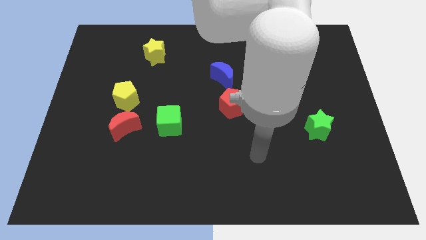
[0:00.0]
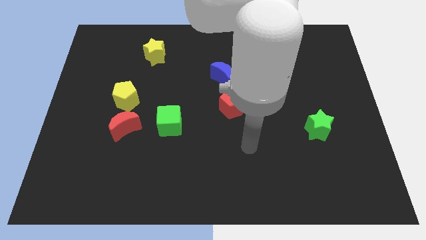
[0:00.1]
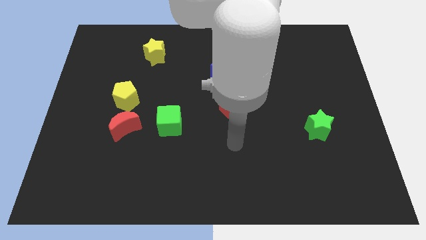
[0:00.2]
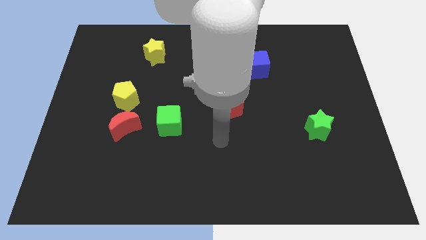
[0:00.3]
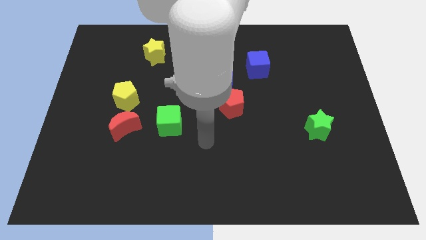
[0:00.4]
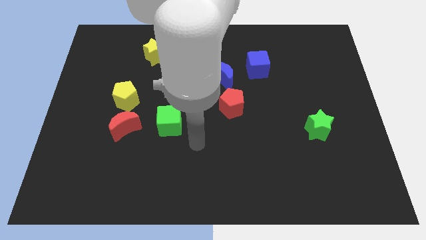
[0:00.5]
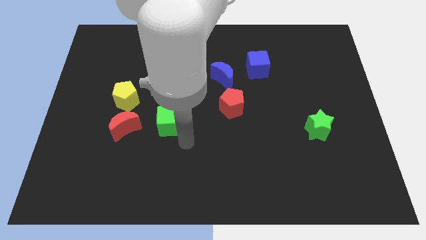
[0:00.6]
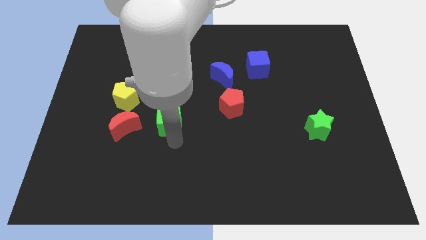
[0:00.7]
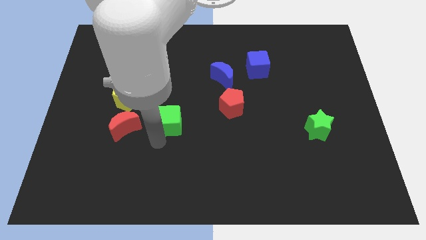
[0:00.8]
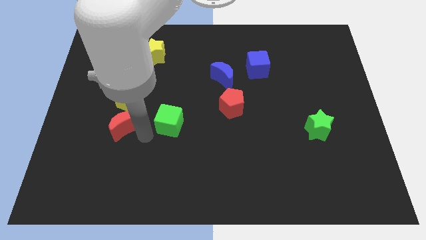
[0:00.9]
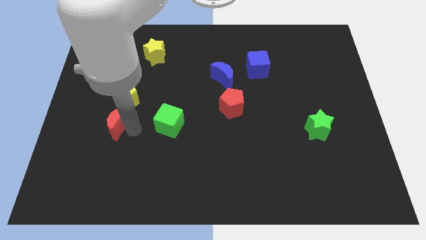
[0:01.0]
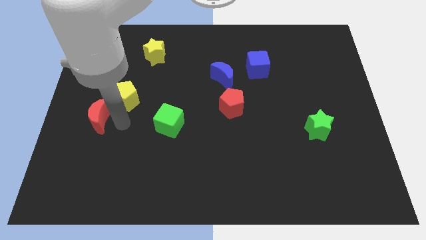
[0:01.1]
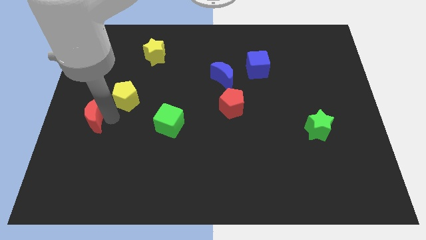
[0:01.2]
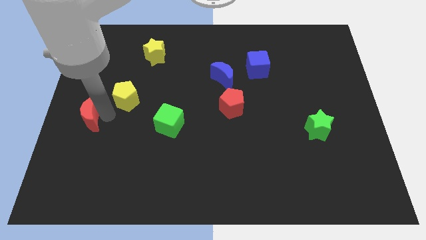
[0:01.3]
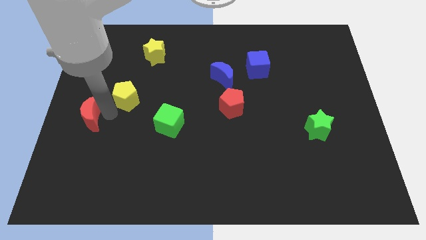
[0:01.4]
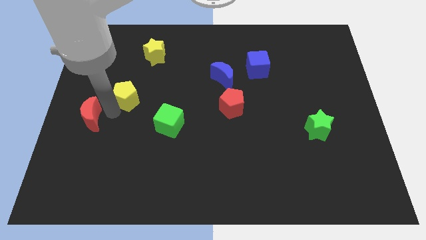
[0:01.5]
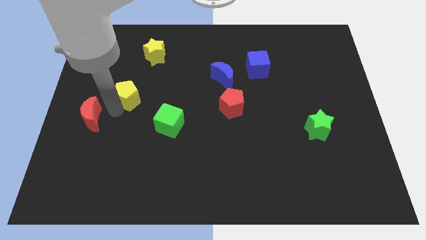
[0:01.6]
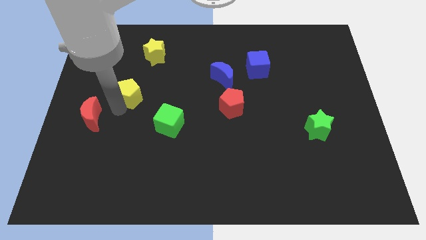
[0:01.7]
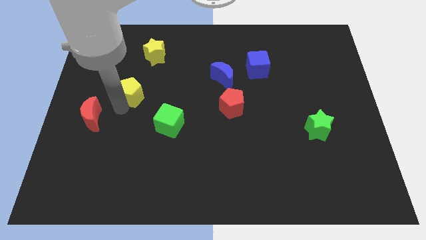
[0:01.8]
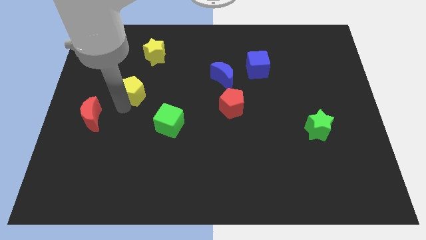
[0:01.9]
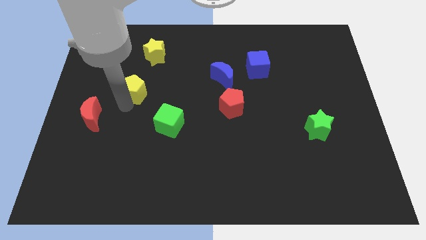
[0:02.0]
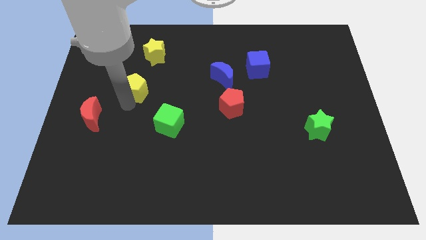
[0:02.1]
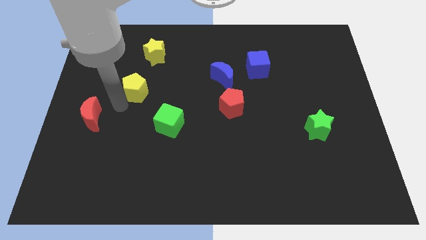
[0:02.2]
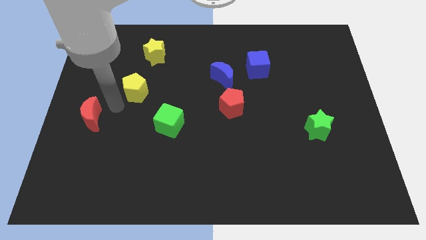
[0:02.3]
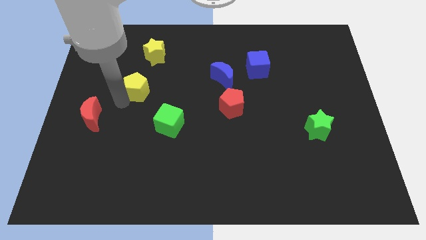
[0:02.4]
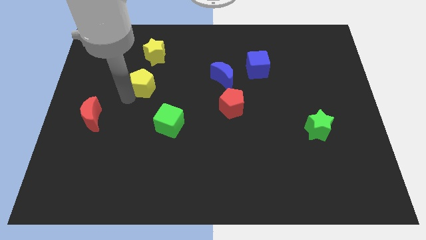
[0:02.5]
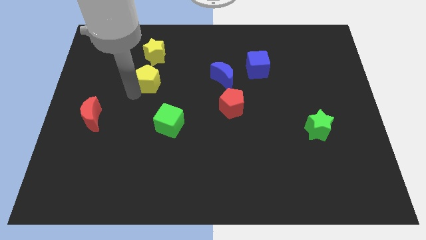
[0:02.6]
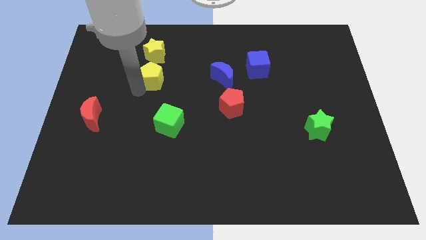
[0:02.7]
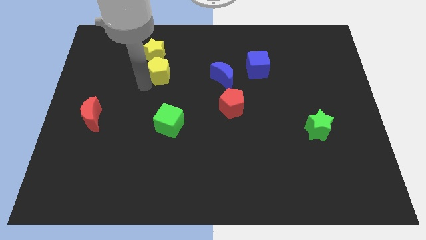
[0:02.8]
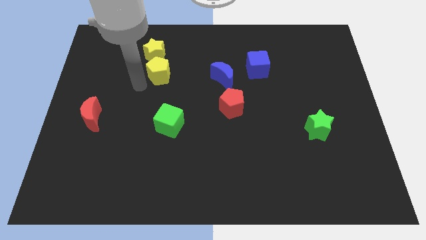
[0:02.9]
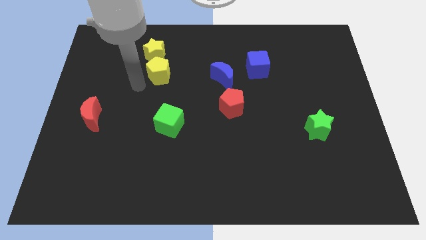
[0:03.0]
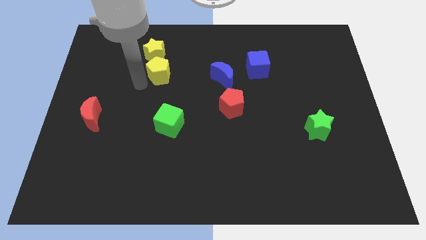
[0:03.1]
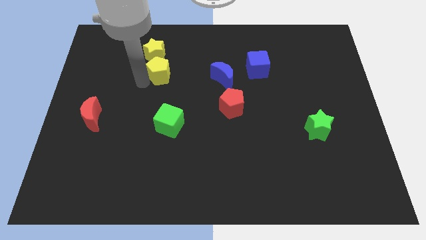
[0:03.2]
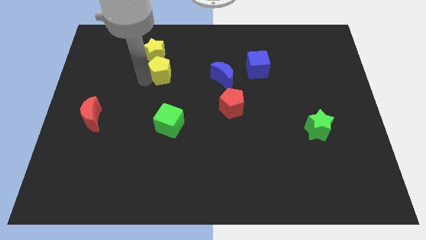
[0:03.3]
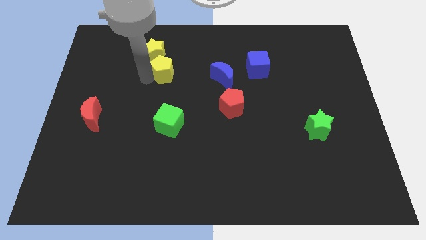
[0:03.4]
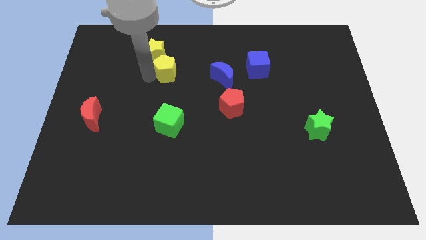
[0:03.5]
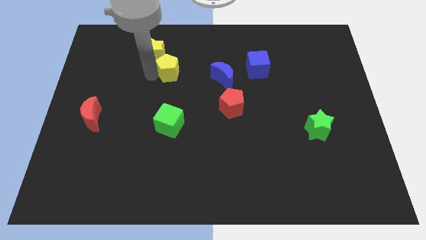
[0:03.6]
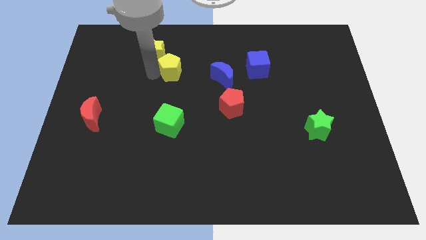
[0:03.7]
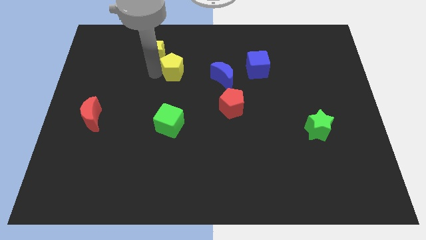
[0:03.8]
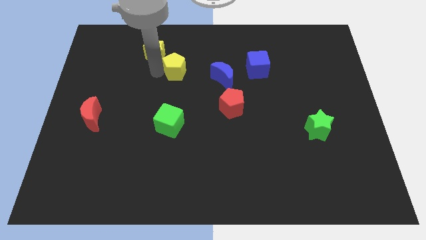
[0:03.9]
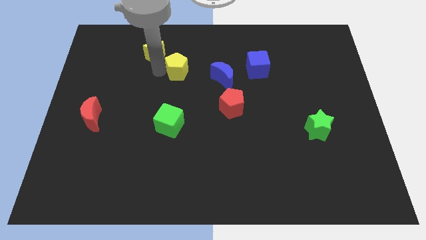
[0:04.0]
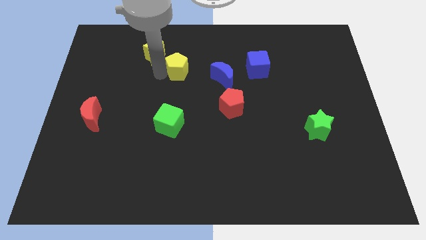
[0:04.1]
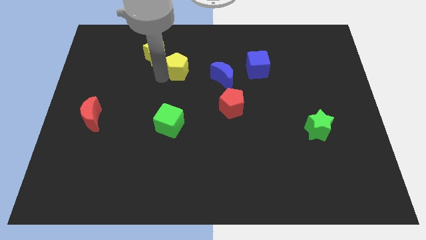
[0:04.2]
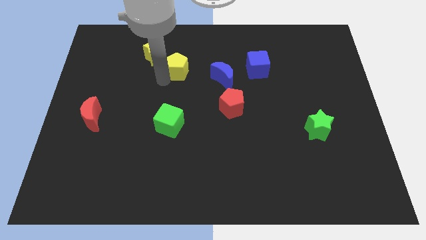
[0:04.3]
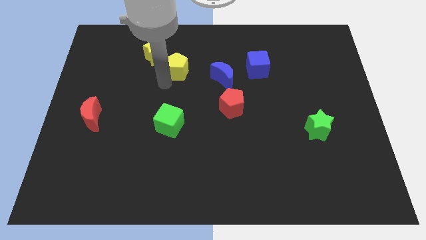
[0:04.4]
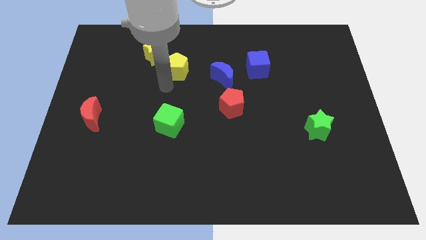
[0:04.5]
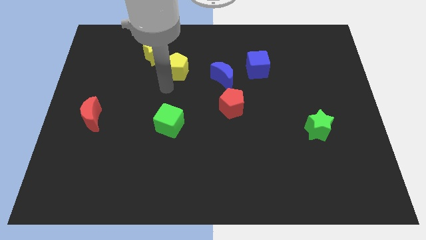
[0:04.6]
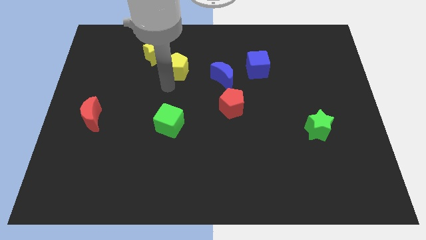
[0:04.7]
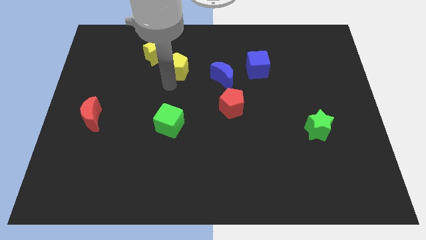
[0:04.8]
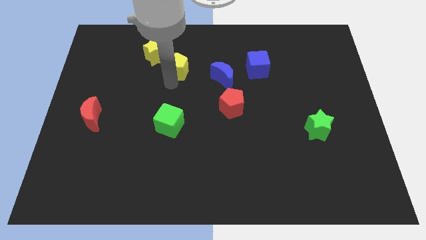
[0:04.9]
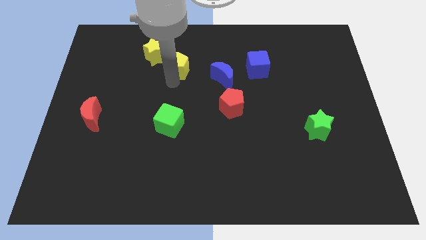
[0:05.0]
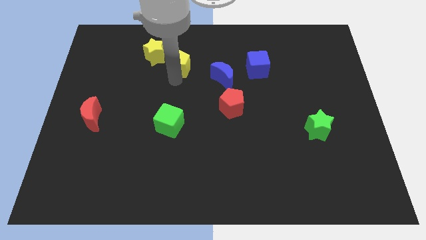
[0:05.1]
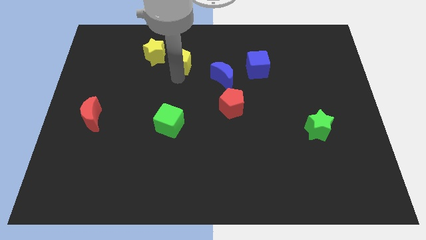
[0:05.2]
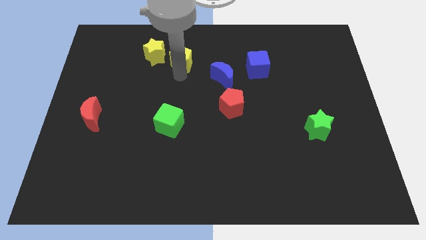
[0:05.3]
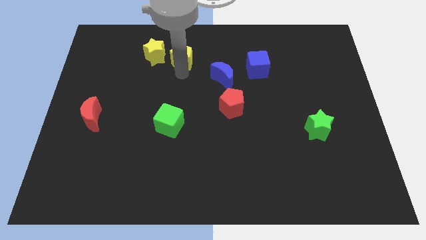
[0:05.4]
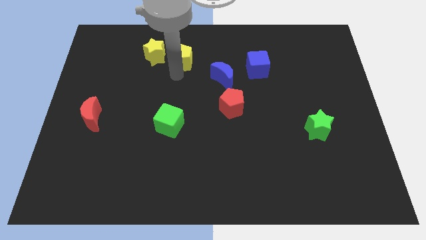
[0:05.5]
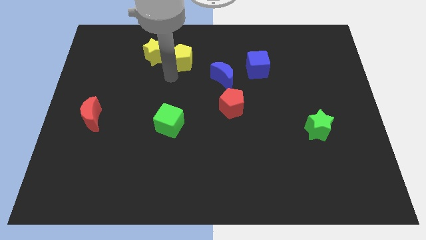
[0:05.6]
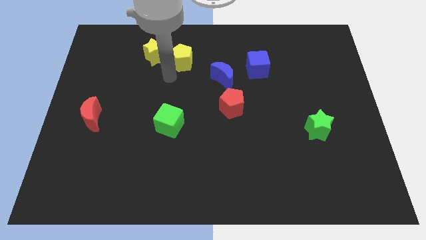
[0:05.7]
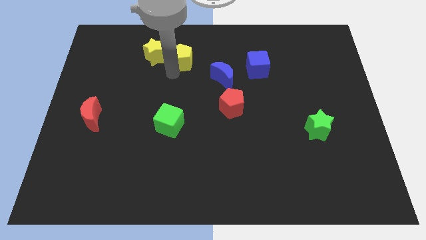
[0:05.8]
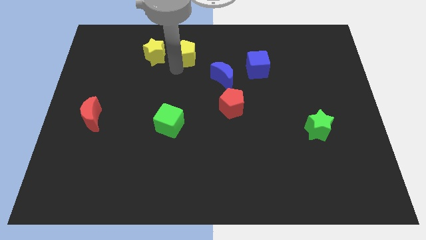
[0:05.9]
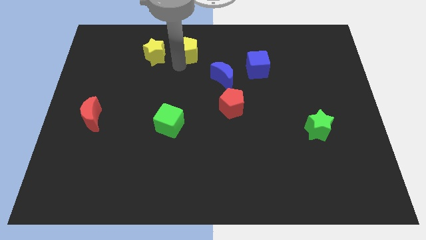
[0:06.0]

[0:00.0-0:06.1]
move the yellow pentagon to the towards your base
